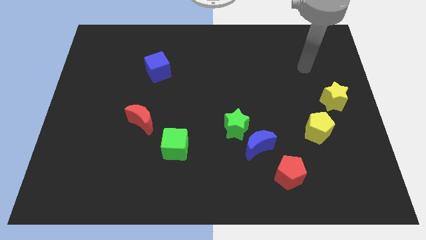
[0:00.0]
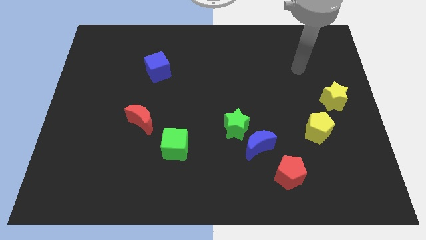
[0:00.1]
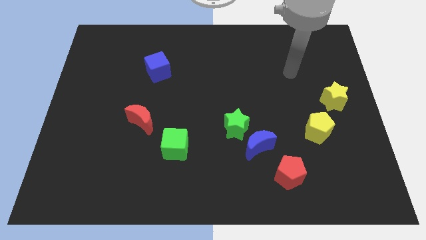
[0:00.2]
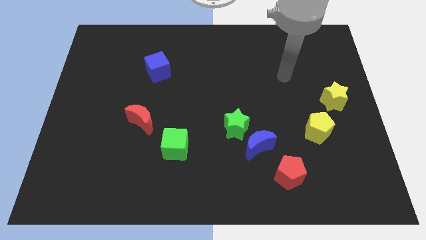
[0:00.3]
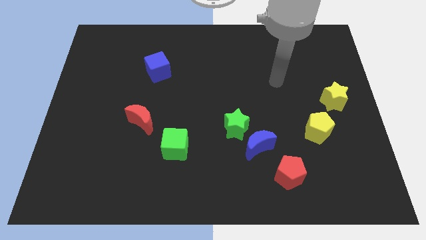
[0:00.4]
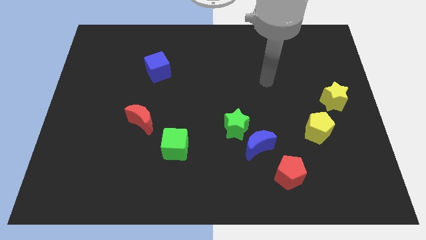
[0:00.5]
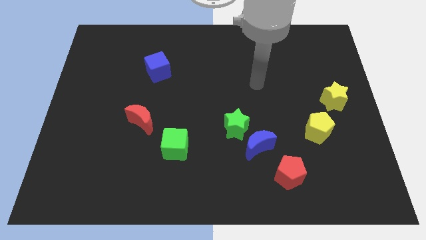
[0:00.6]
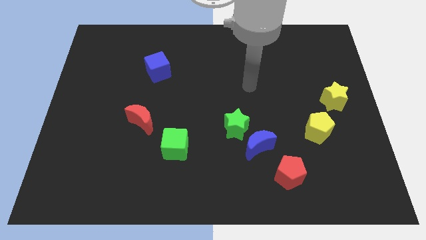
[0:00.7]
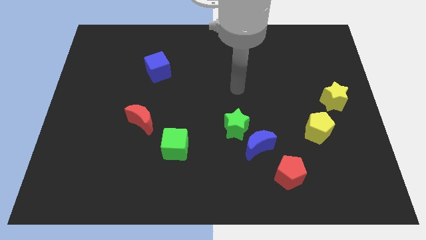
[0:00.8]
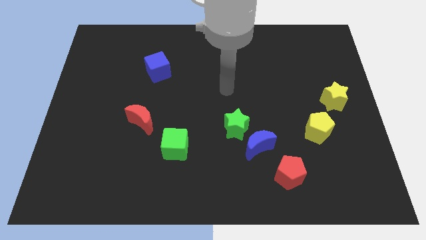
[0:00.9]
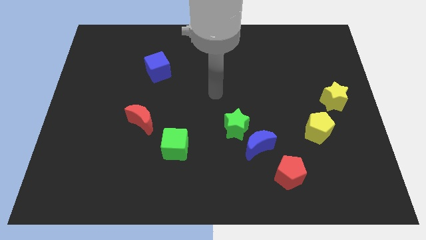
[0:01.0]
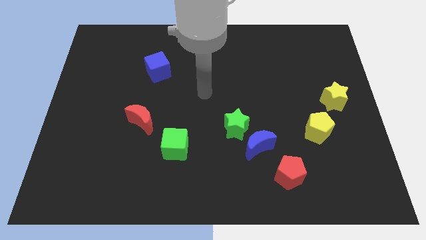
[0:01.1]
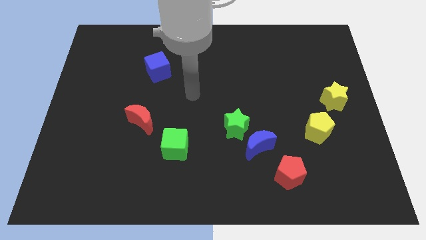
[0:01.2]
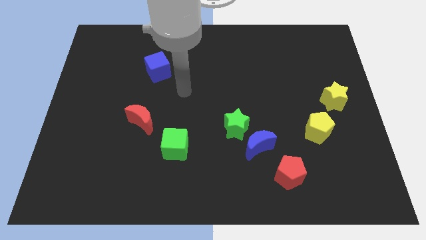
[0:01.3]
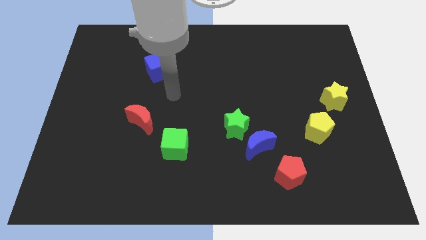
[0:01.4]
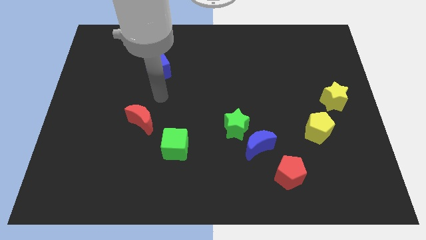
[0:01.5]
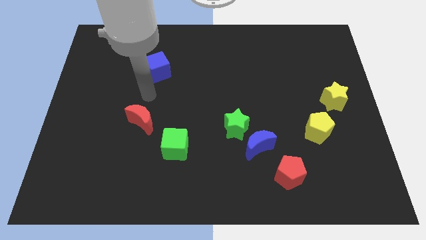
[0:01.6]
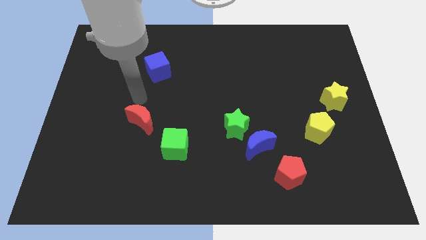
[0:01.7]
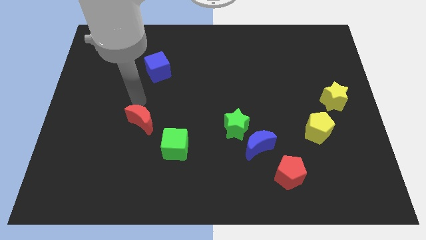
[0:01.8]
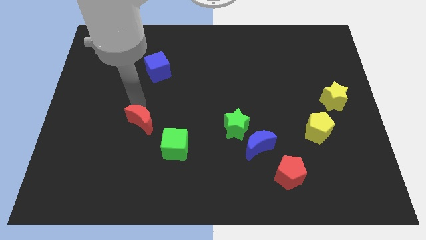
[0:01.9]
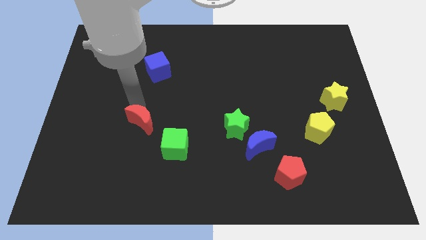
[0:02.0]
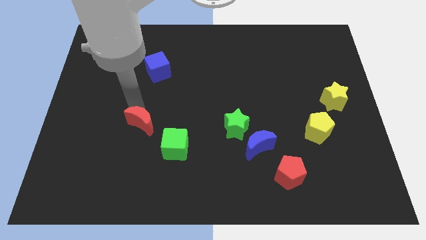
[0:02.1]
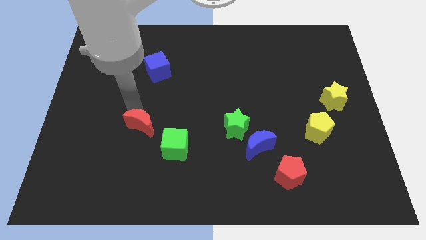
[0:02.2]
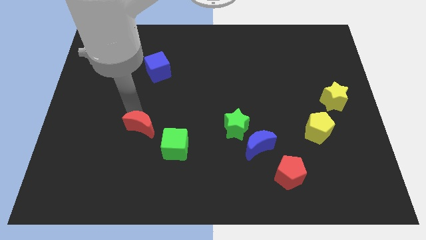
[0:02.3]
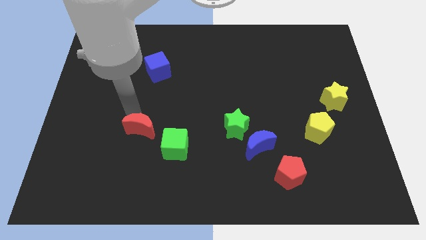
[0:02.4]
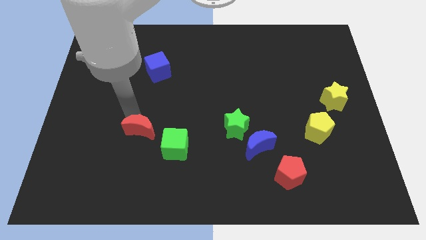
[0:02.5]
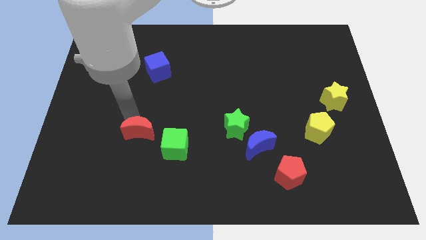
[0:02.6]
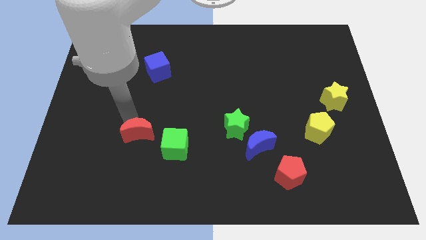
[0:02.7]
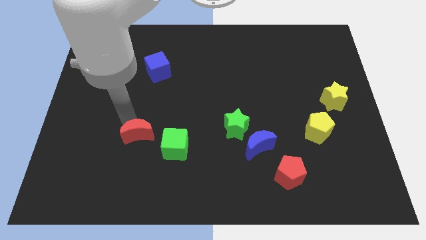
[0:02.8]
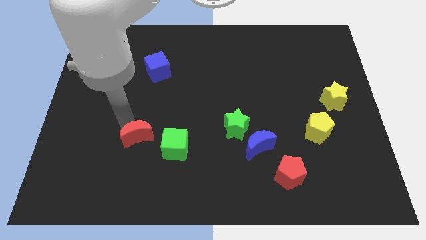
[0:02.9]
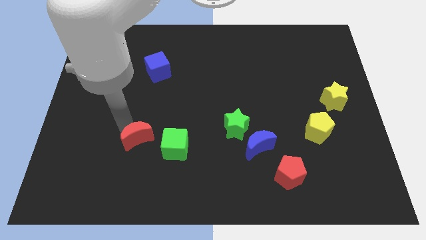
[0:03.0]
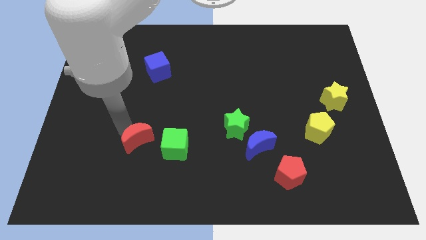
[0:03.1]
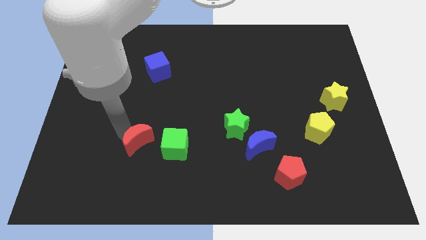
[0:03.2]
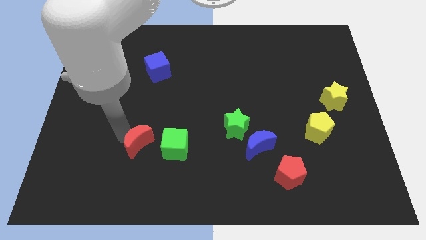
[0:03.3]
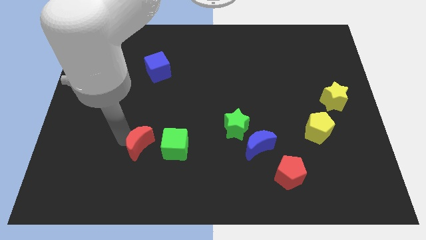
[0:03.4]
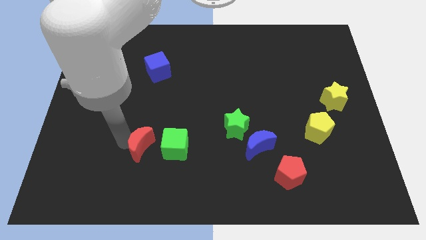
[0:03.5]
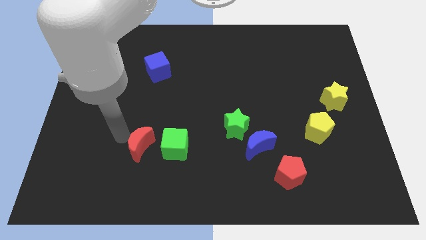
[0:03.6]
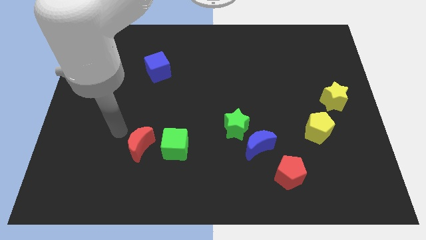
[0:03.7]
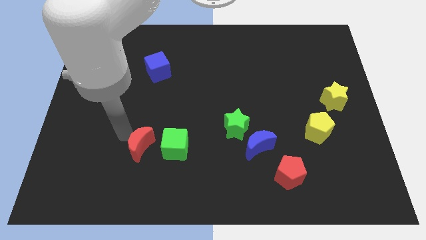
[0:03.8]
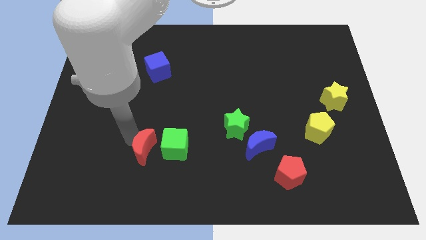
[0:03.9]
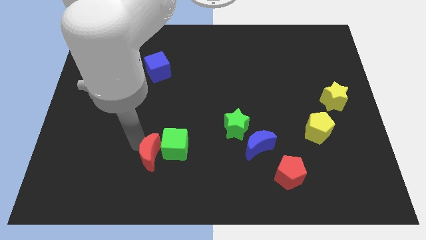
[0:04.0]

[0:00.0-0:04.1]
push the red moon downwards and then right a little bit

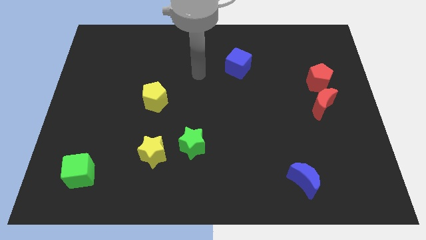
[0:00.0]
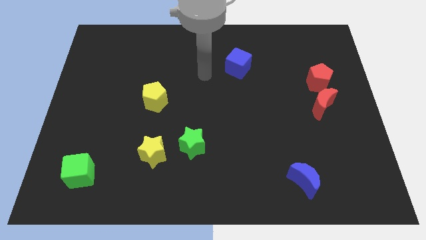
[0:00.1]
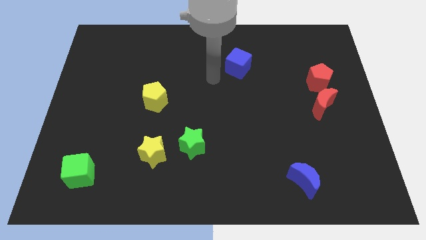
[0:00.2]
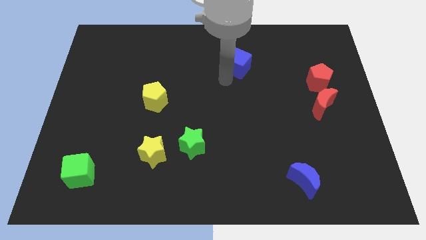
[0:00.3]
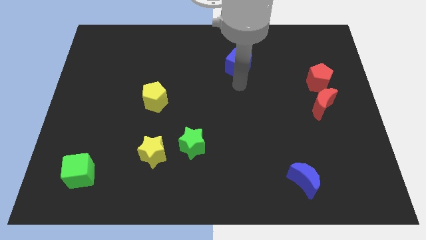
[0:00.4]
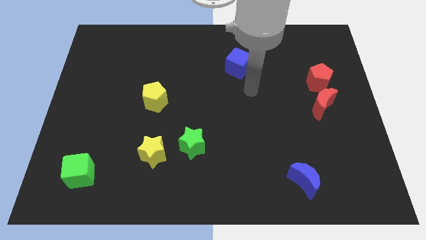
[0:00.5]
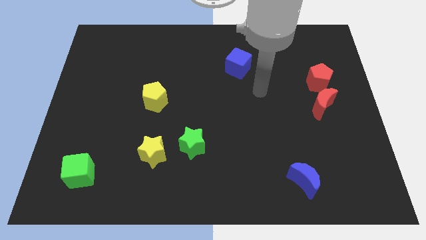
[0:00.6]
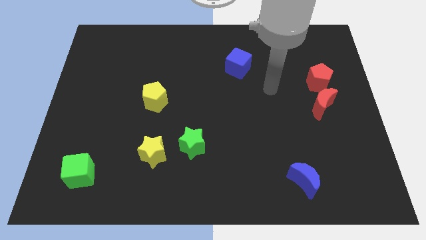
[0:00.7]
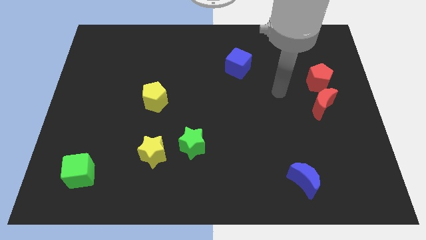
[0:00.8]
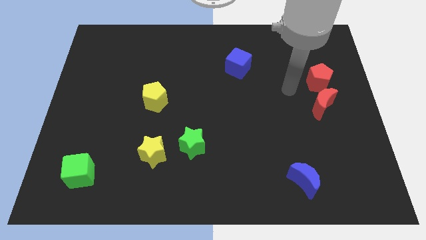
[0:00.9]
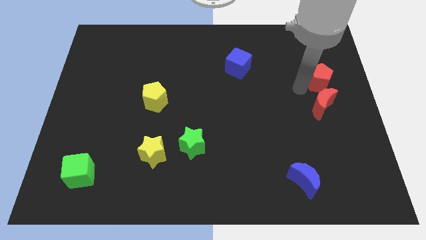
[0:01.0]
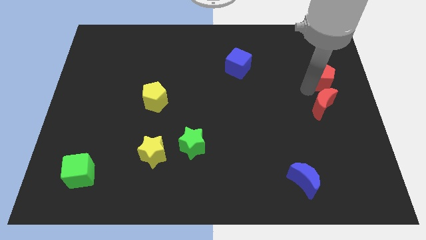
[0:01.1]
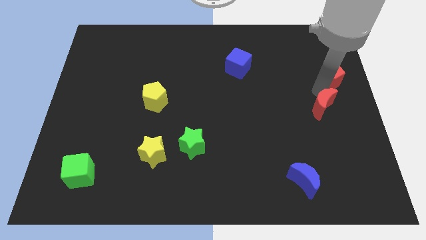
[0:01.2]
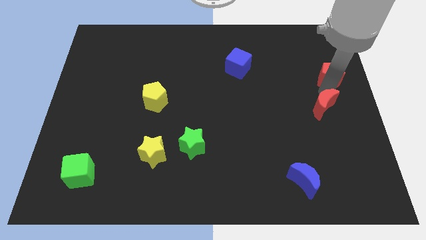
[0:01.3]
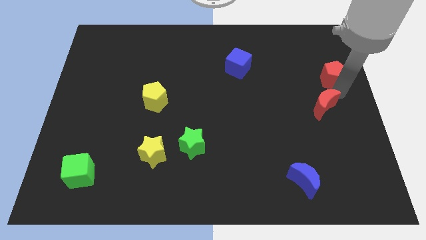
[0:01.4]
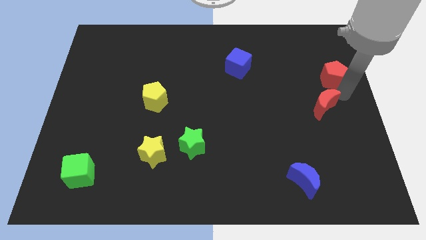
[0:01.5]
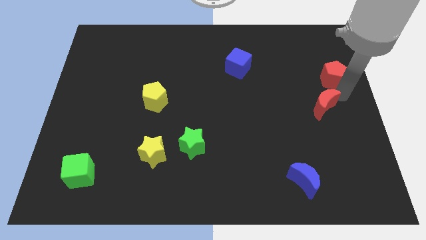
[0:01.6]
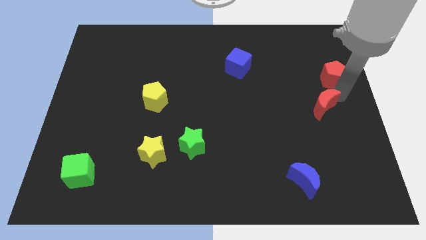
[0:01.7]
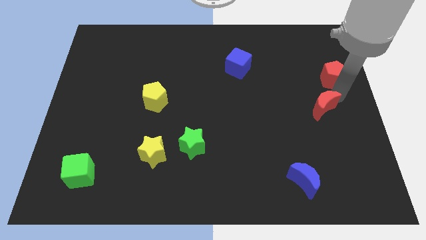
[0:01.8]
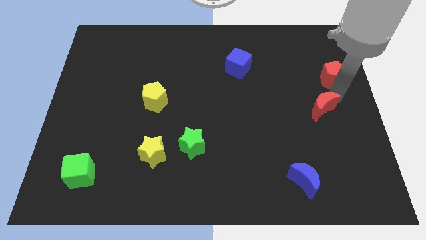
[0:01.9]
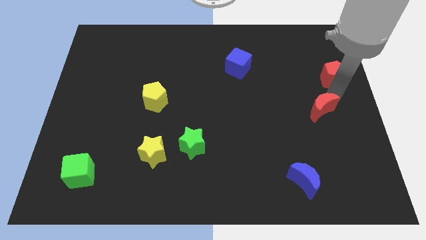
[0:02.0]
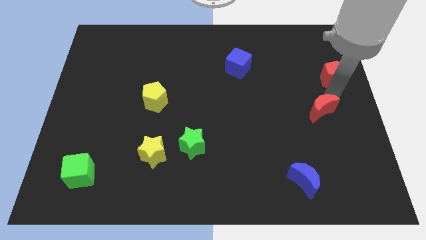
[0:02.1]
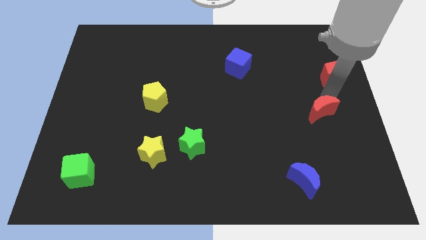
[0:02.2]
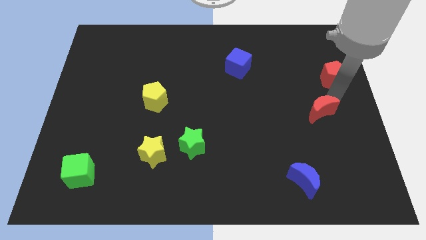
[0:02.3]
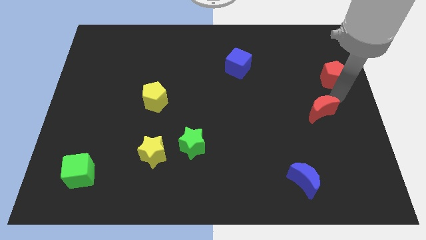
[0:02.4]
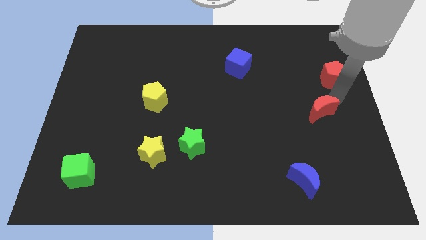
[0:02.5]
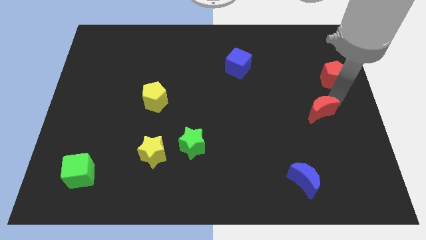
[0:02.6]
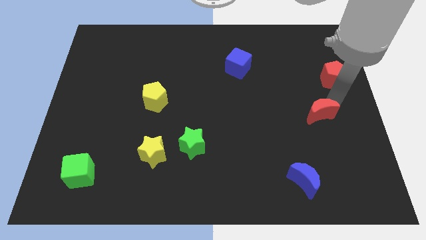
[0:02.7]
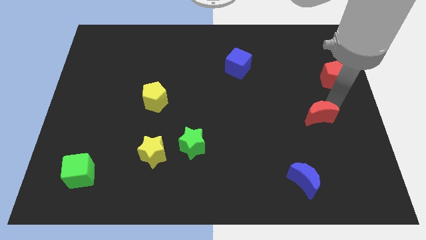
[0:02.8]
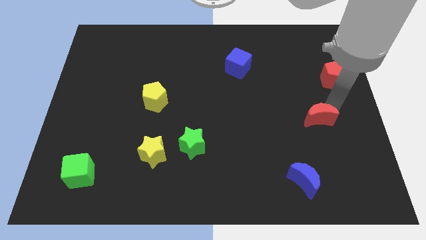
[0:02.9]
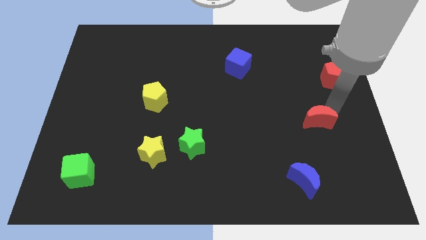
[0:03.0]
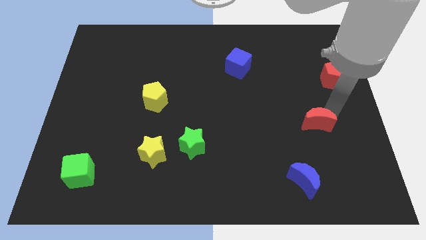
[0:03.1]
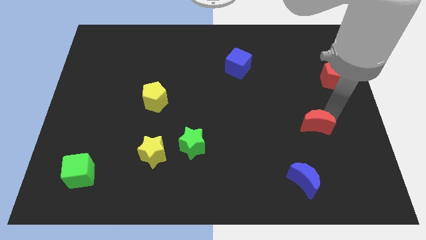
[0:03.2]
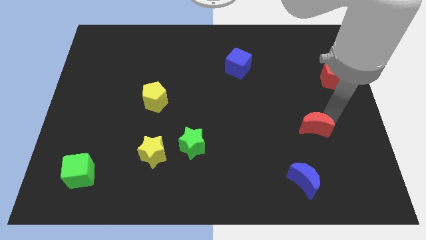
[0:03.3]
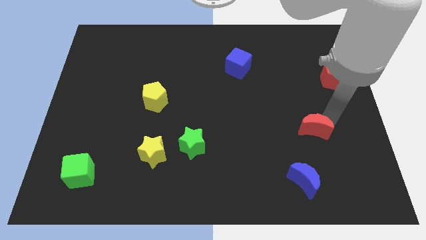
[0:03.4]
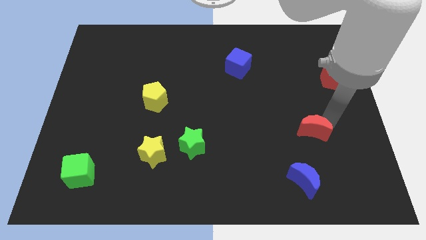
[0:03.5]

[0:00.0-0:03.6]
push the red moon down and left a little bit
